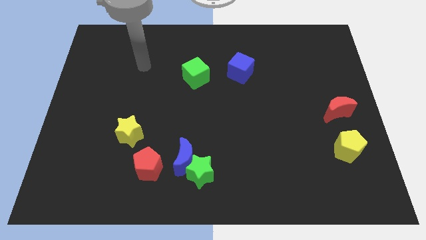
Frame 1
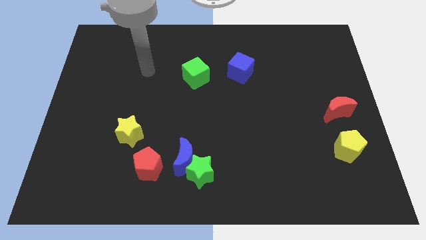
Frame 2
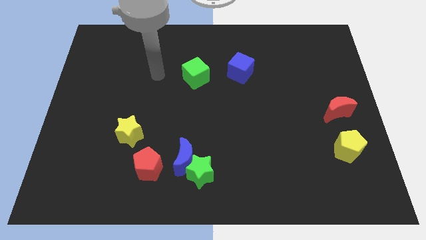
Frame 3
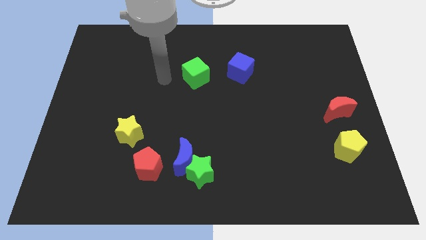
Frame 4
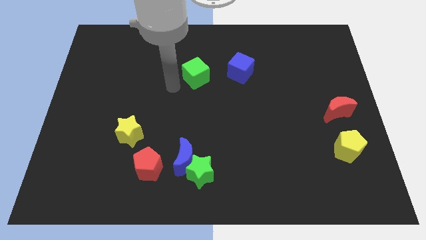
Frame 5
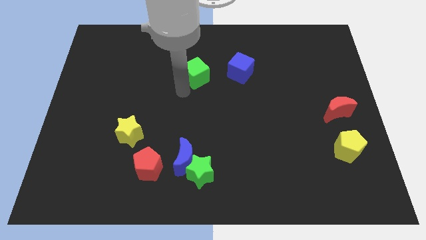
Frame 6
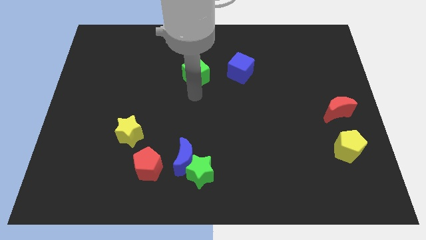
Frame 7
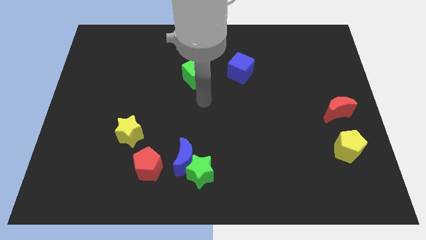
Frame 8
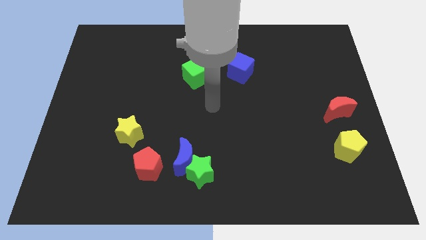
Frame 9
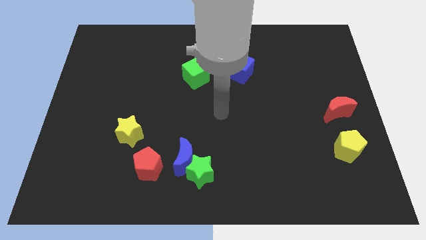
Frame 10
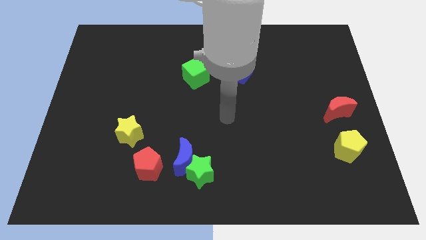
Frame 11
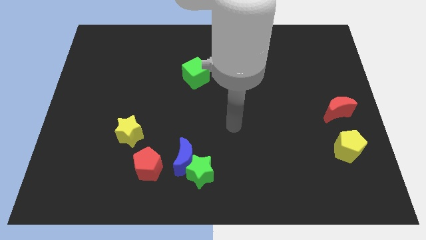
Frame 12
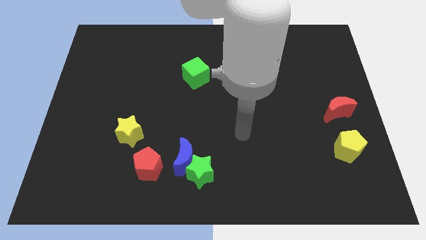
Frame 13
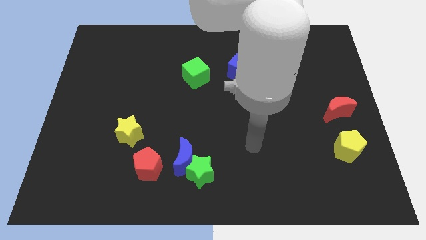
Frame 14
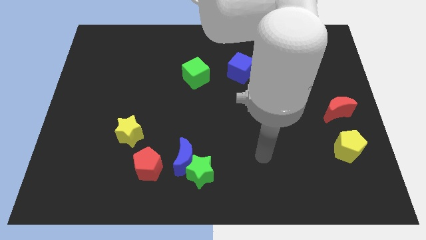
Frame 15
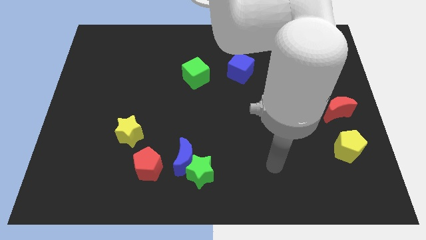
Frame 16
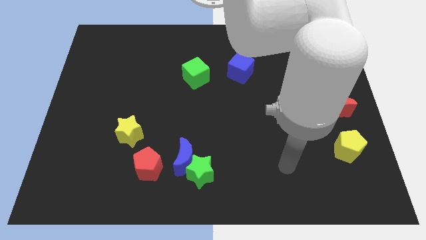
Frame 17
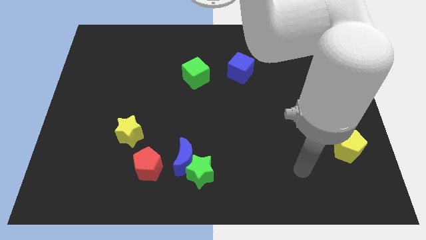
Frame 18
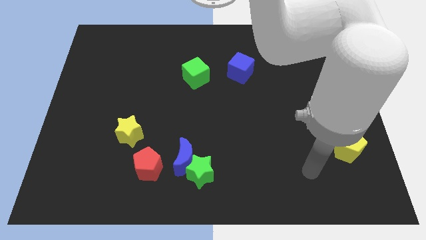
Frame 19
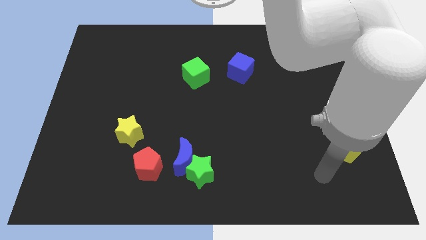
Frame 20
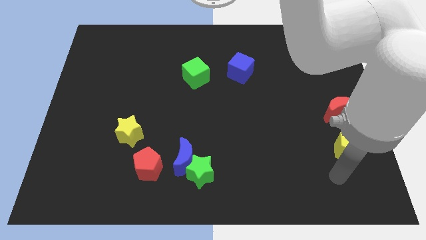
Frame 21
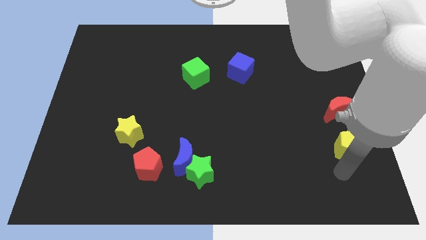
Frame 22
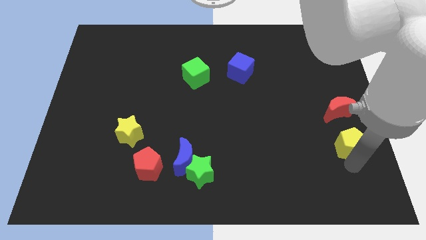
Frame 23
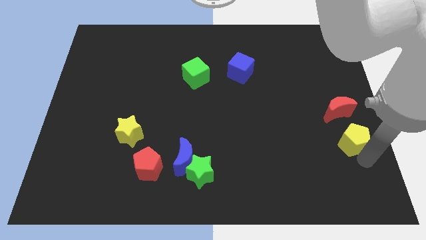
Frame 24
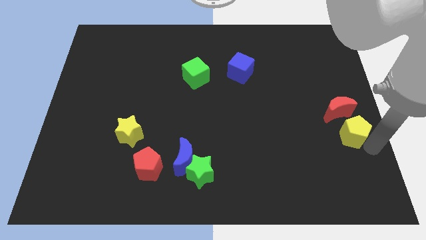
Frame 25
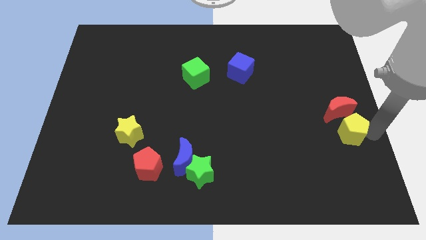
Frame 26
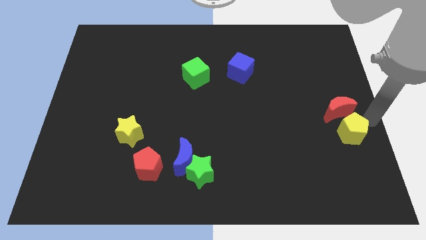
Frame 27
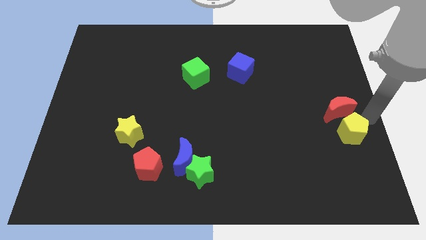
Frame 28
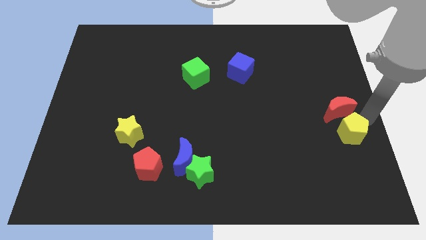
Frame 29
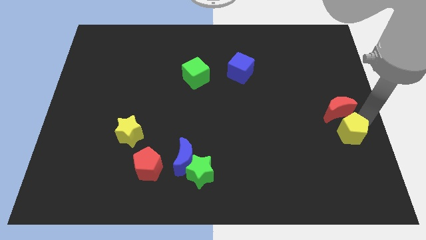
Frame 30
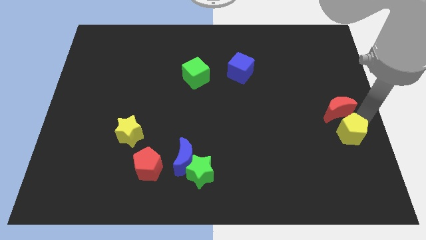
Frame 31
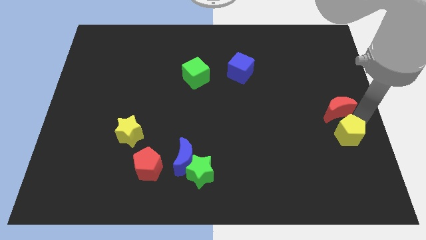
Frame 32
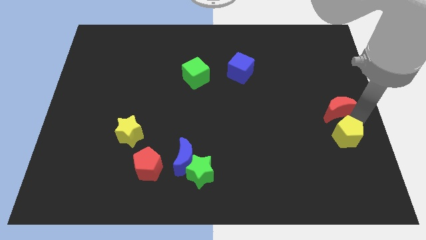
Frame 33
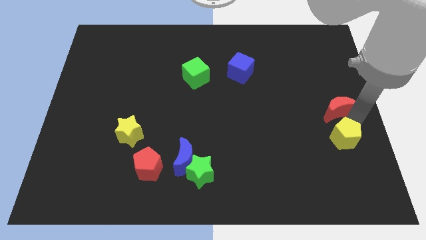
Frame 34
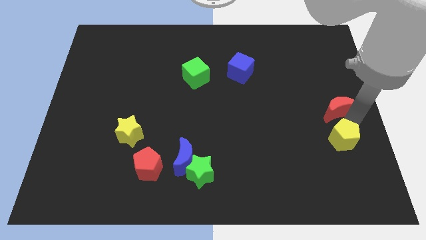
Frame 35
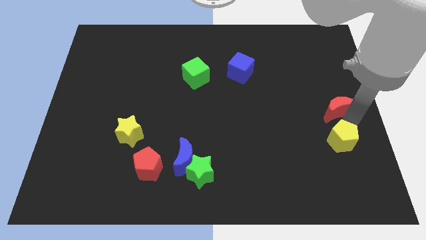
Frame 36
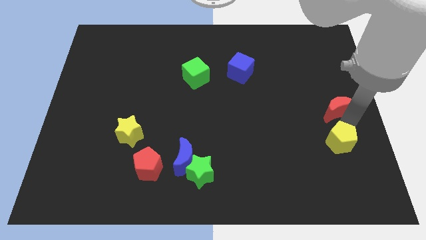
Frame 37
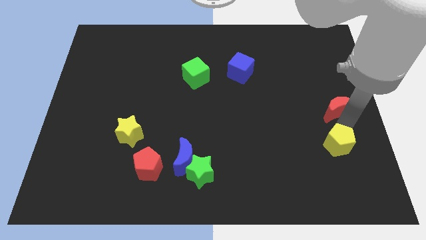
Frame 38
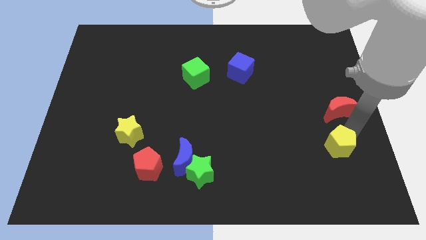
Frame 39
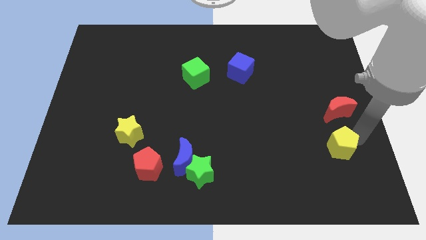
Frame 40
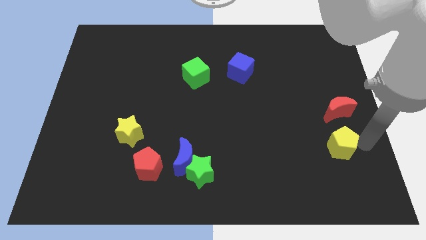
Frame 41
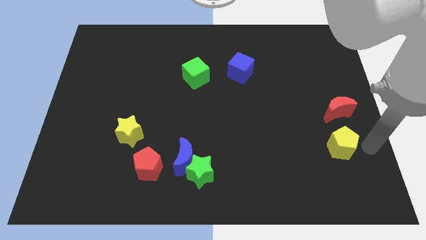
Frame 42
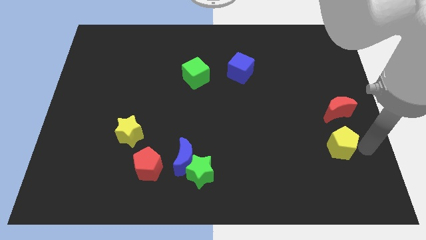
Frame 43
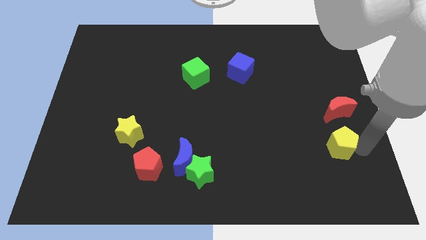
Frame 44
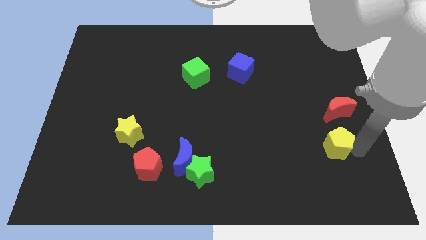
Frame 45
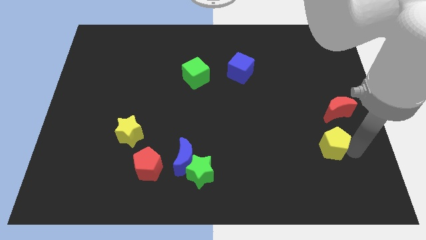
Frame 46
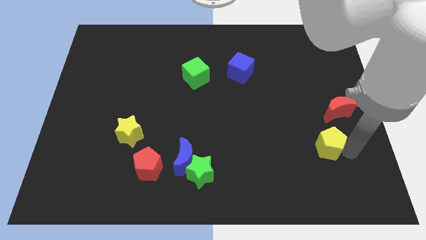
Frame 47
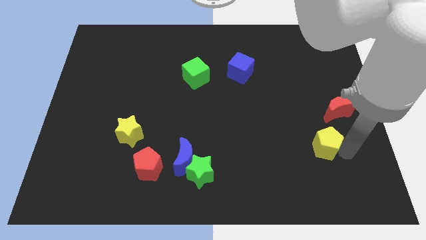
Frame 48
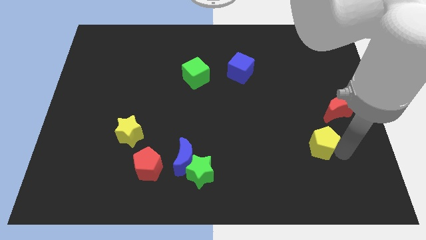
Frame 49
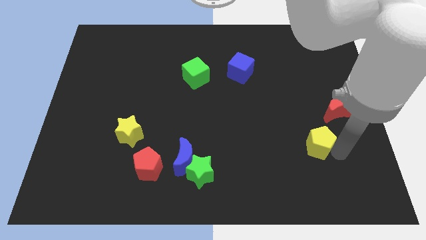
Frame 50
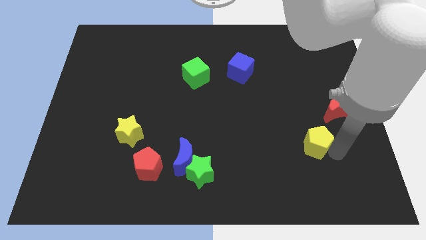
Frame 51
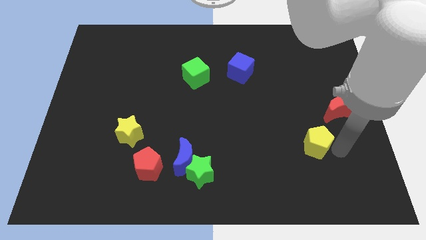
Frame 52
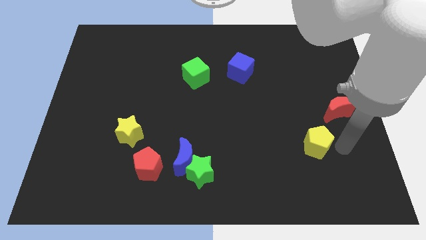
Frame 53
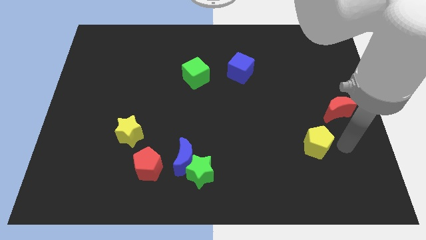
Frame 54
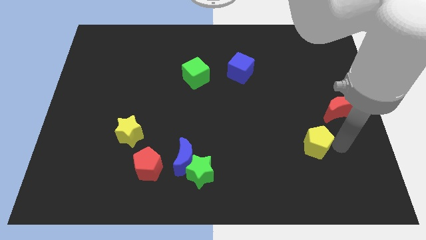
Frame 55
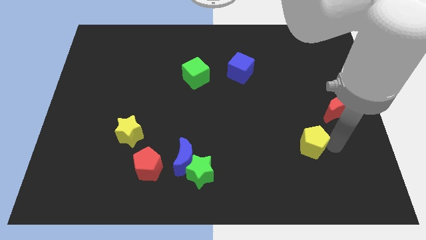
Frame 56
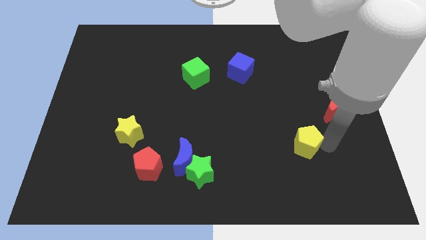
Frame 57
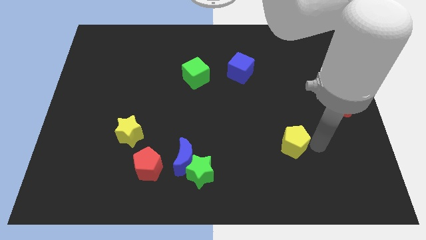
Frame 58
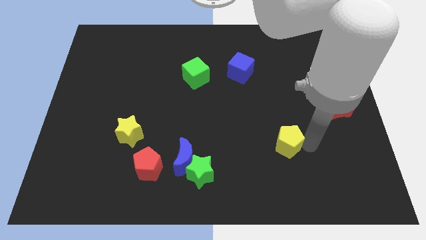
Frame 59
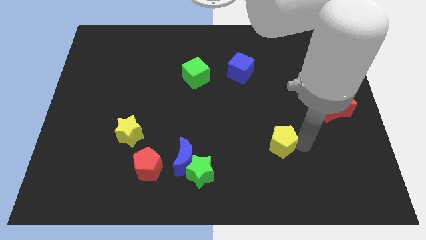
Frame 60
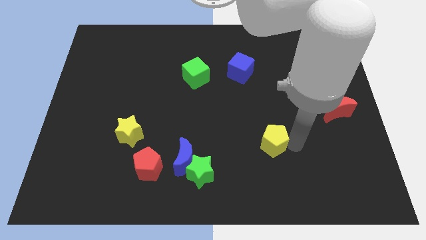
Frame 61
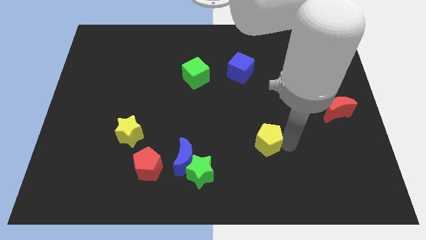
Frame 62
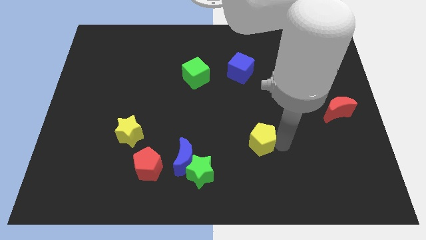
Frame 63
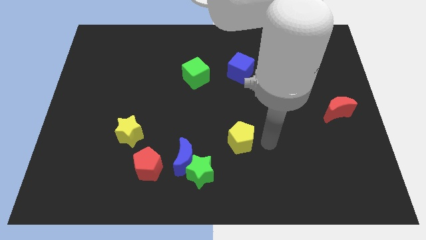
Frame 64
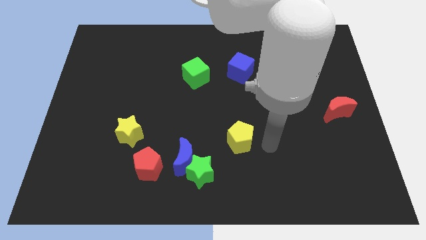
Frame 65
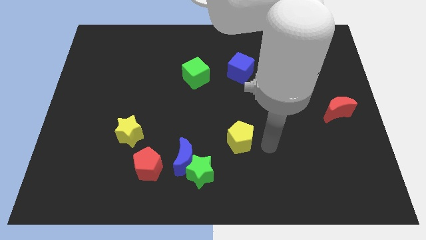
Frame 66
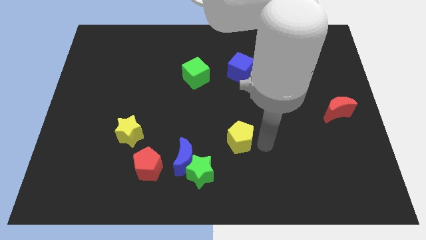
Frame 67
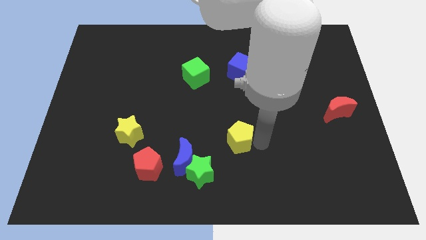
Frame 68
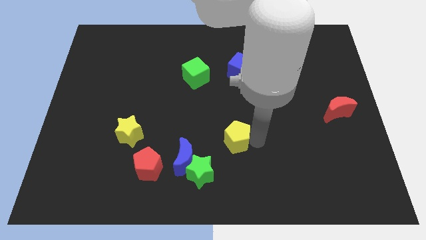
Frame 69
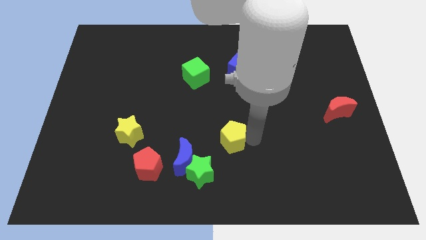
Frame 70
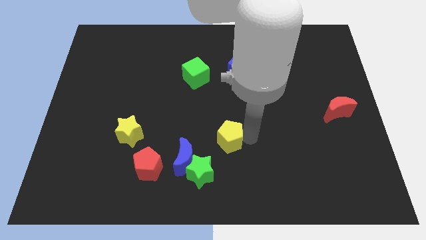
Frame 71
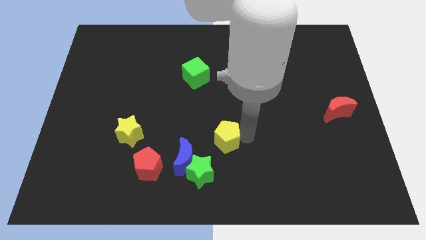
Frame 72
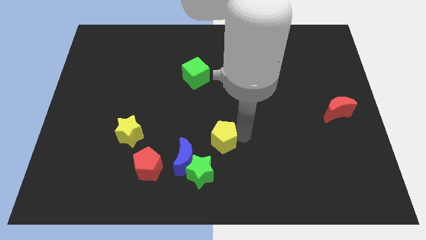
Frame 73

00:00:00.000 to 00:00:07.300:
slide the yellow pentagon to the top side of the green star

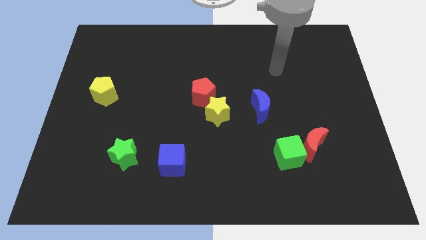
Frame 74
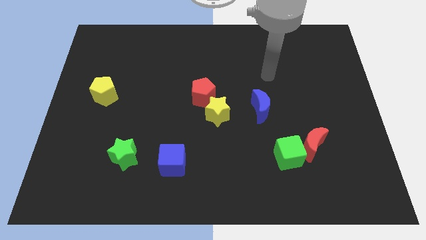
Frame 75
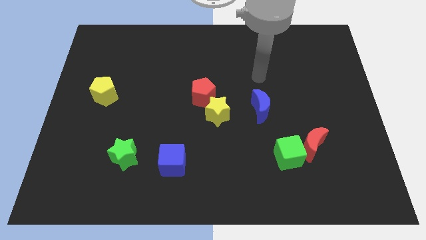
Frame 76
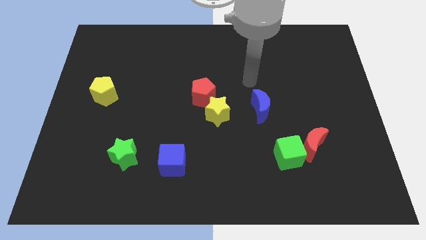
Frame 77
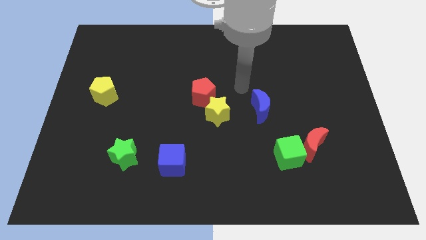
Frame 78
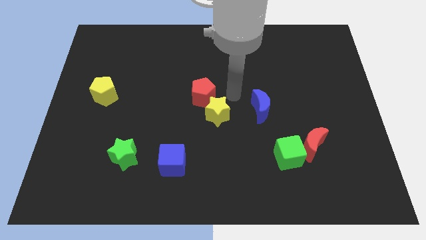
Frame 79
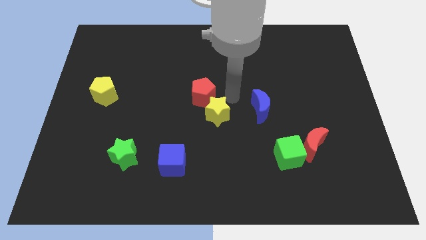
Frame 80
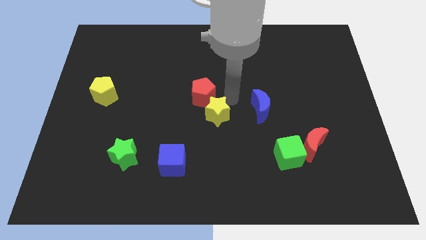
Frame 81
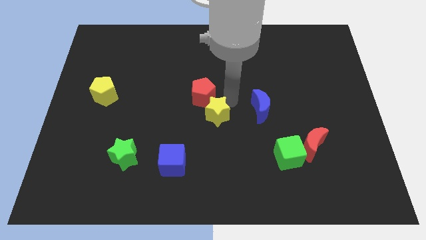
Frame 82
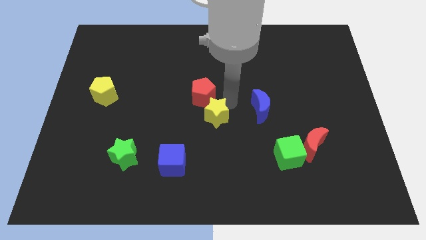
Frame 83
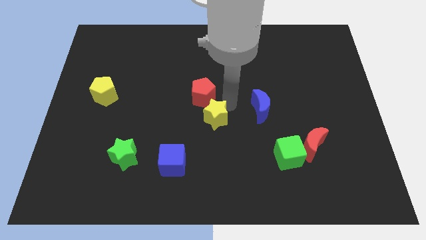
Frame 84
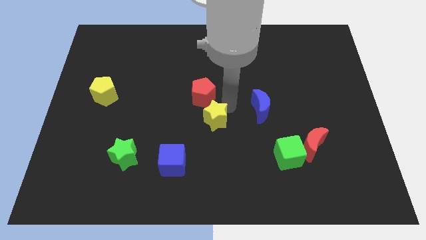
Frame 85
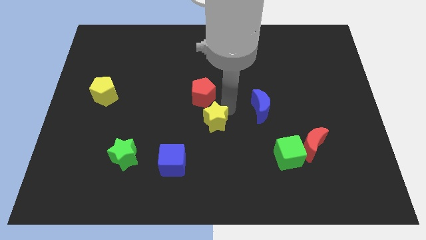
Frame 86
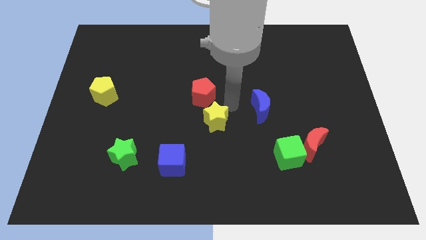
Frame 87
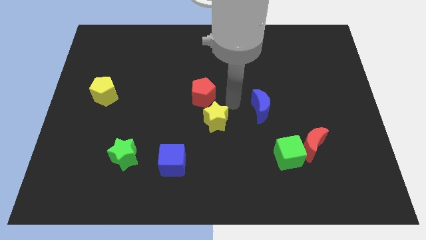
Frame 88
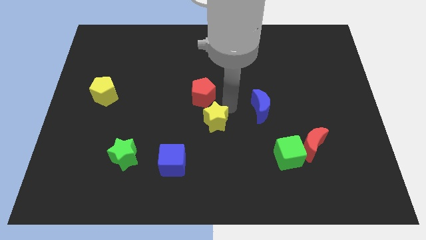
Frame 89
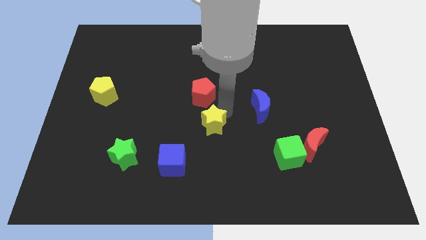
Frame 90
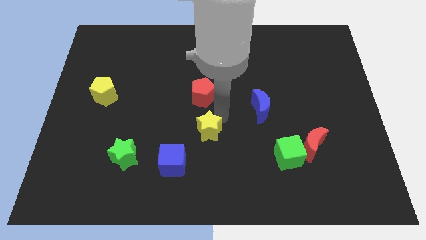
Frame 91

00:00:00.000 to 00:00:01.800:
slide the yellow star to the top right side of the blue cube
